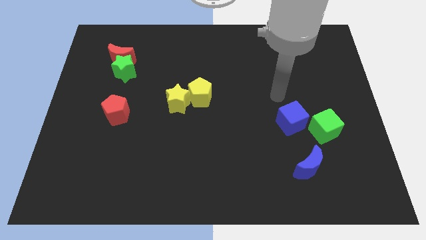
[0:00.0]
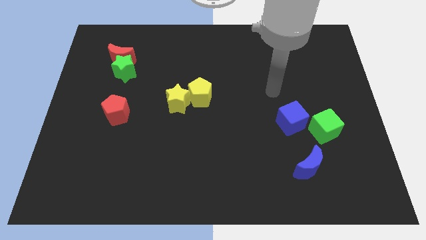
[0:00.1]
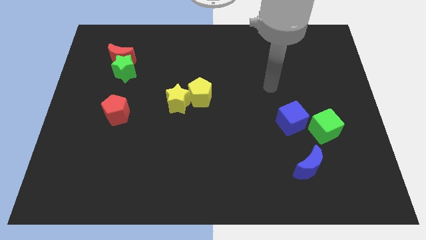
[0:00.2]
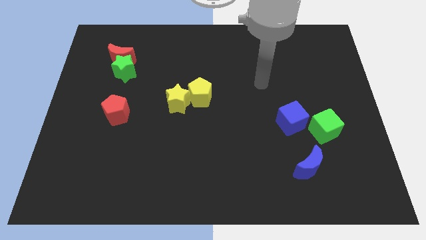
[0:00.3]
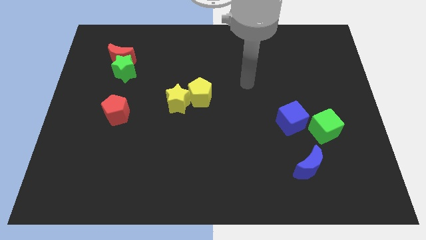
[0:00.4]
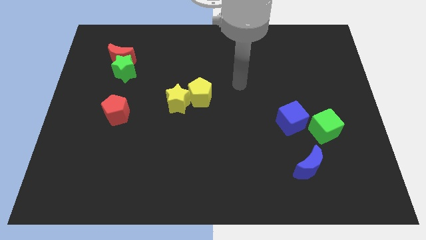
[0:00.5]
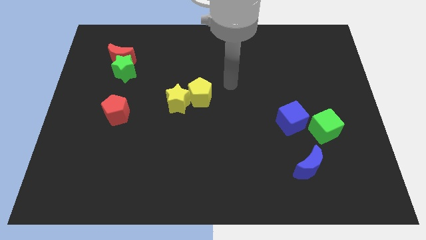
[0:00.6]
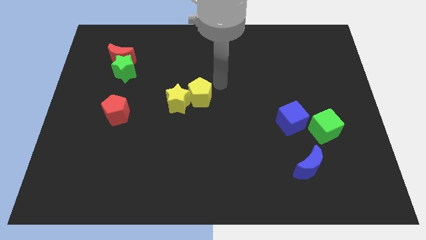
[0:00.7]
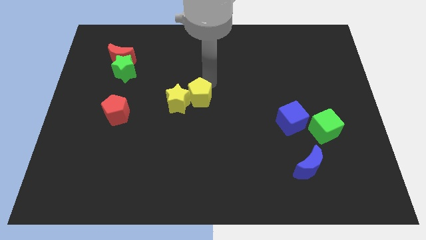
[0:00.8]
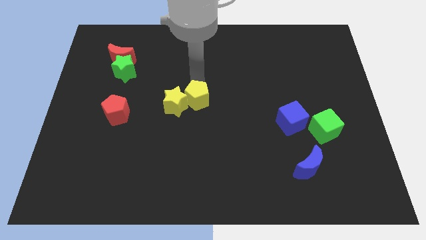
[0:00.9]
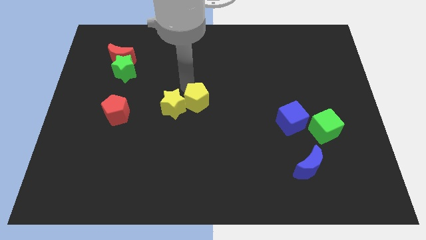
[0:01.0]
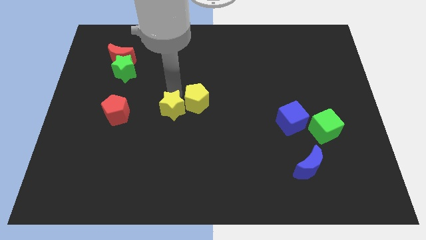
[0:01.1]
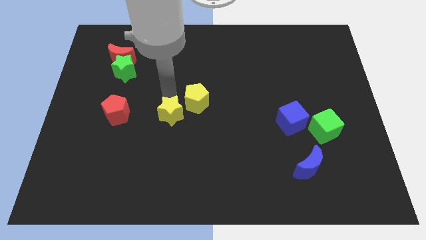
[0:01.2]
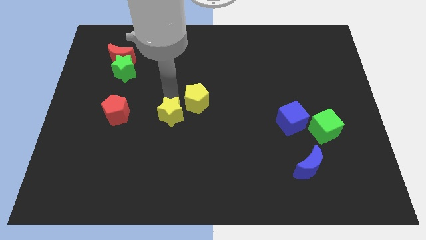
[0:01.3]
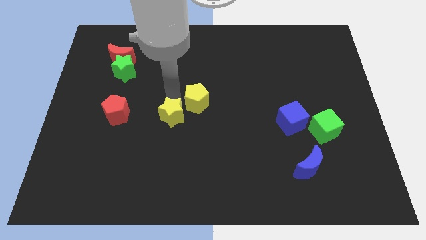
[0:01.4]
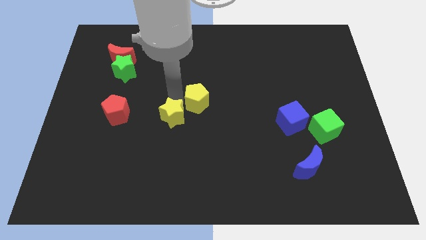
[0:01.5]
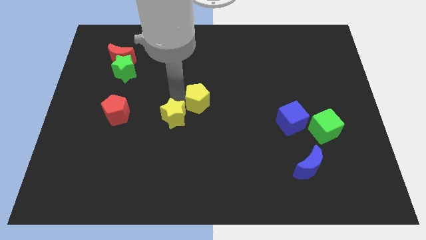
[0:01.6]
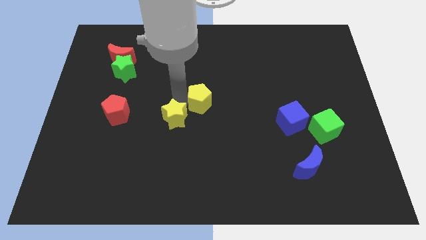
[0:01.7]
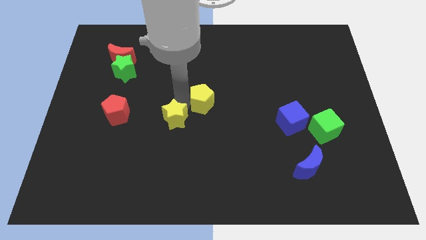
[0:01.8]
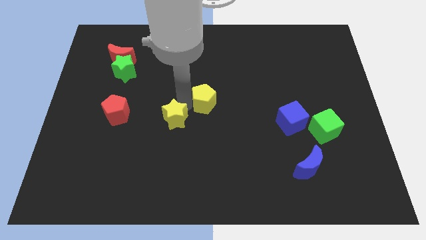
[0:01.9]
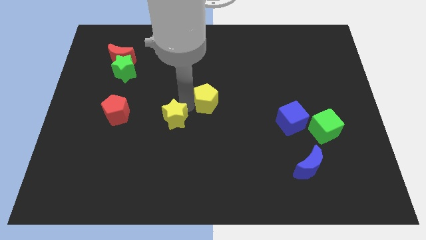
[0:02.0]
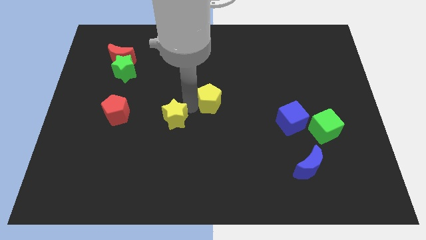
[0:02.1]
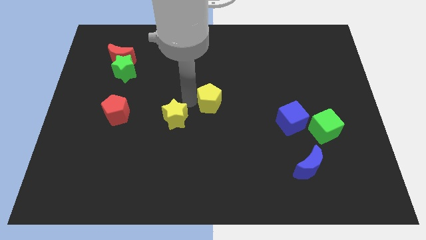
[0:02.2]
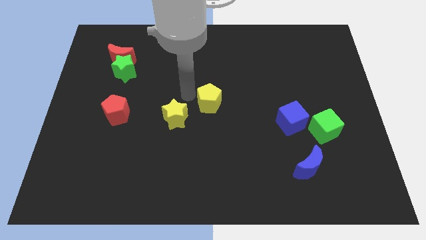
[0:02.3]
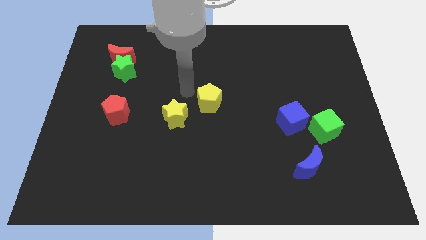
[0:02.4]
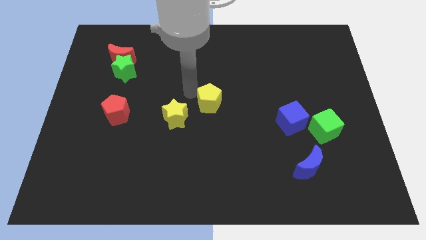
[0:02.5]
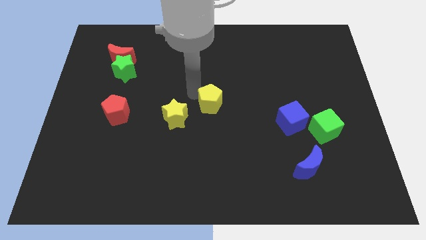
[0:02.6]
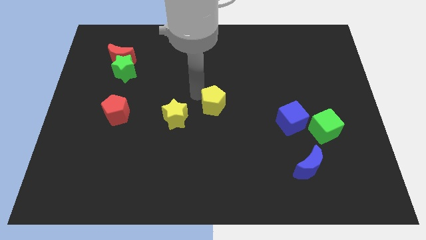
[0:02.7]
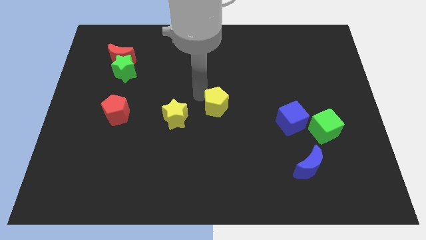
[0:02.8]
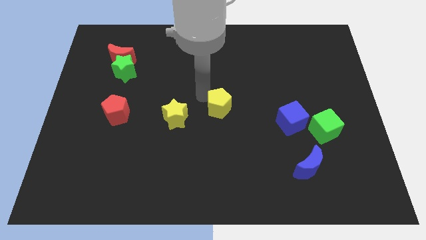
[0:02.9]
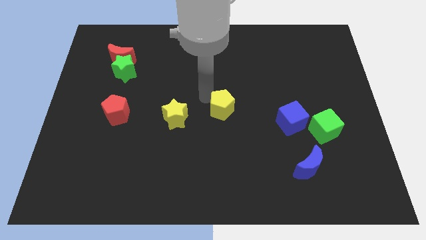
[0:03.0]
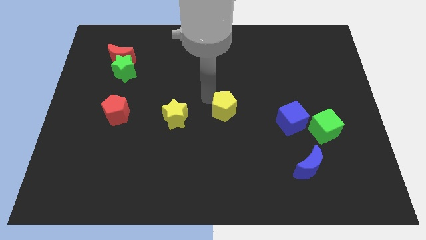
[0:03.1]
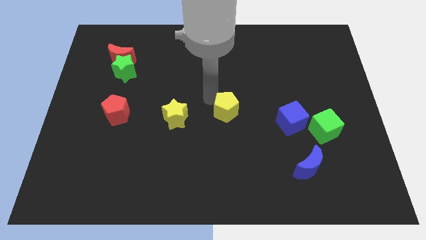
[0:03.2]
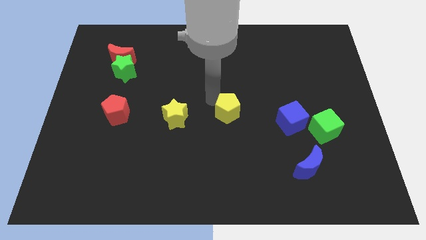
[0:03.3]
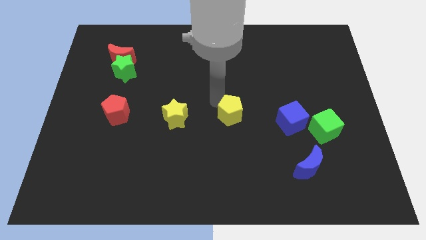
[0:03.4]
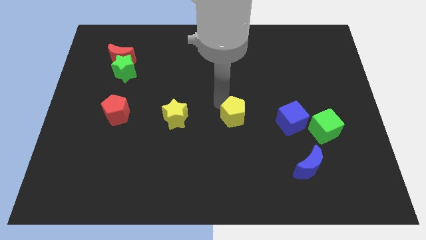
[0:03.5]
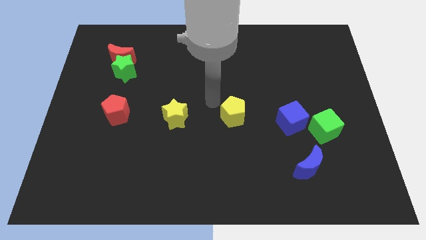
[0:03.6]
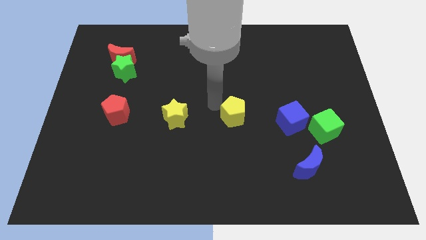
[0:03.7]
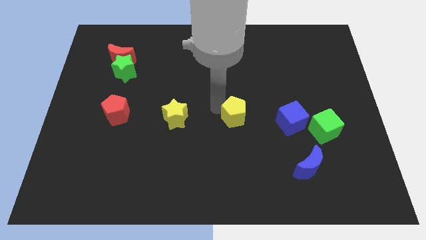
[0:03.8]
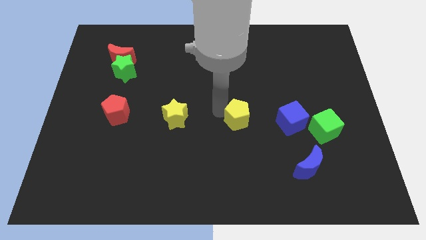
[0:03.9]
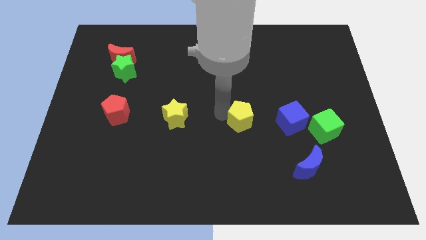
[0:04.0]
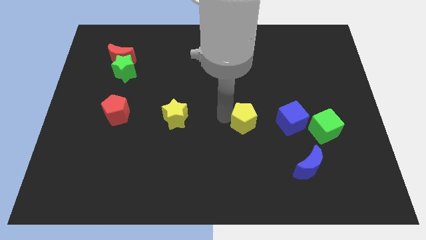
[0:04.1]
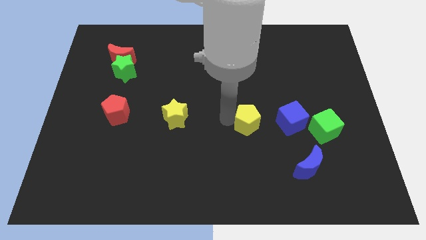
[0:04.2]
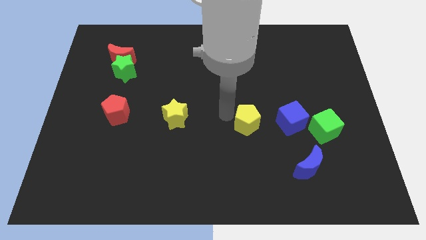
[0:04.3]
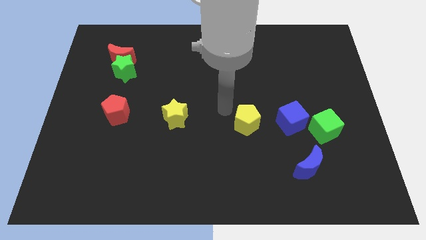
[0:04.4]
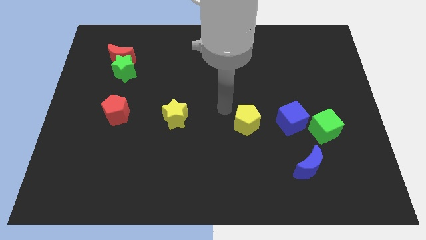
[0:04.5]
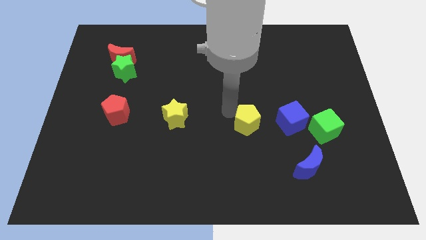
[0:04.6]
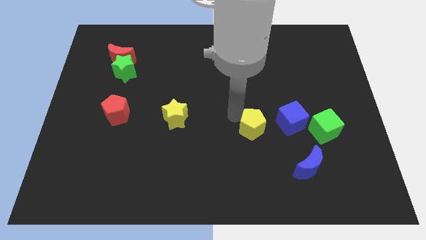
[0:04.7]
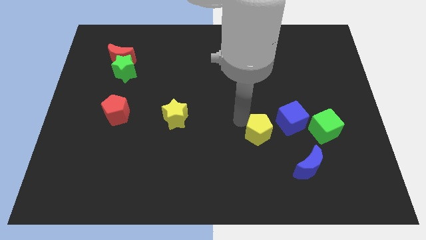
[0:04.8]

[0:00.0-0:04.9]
put the yellow pentagon to the bottom left of the blue cube

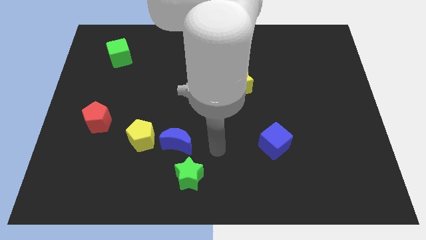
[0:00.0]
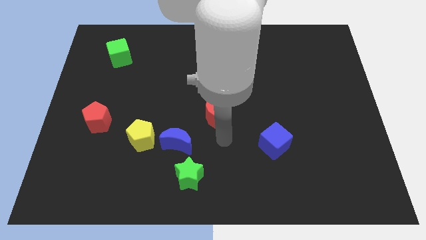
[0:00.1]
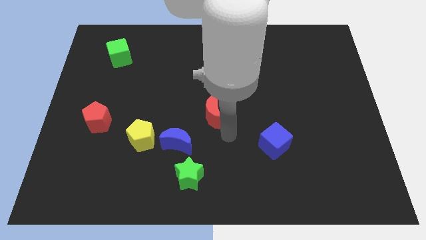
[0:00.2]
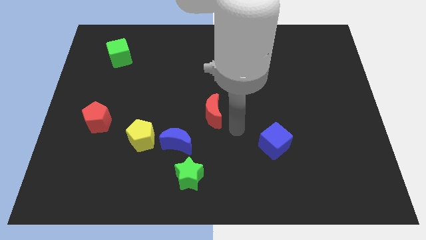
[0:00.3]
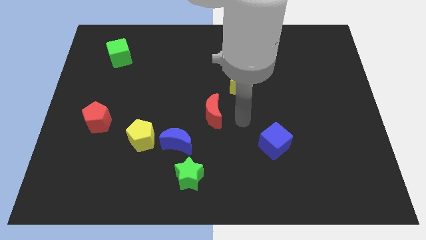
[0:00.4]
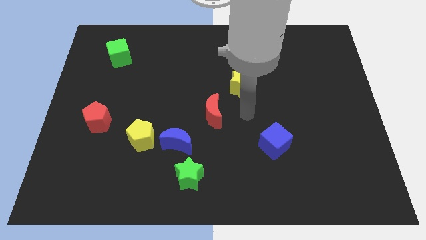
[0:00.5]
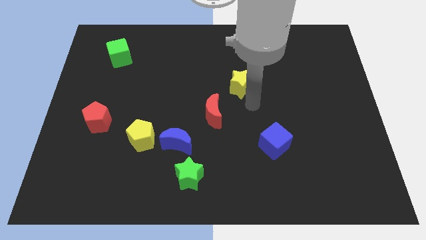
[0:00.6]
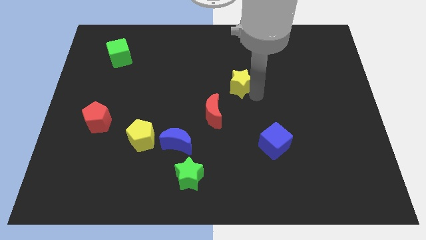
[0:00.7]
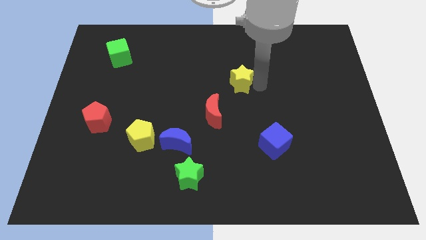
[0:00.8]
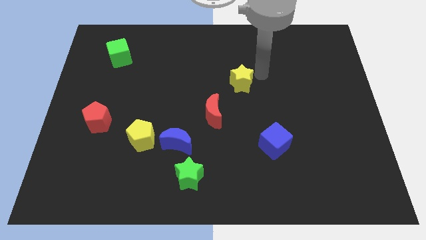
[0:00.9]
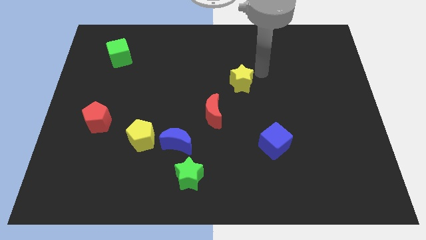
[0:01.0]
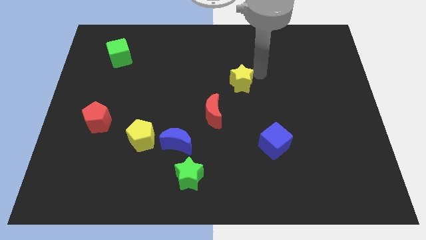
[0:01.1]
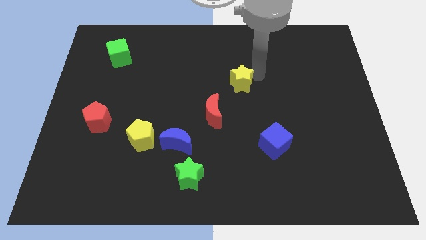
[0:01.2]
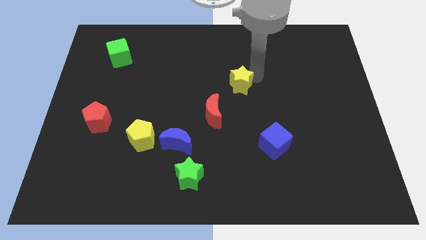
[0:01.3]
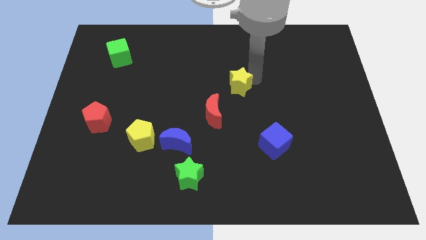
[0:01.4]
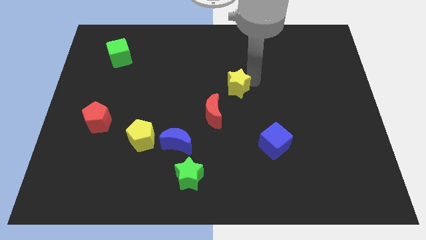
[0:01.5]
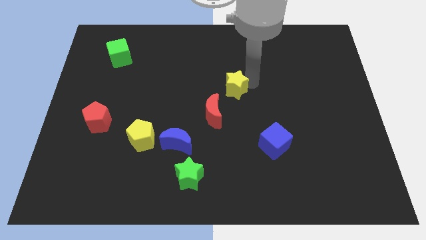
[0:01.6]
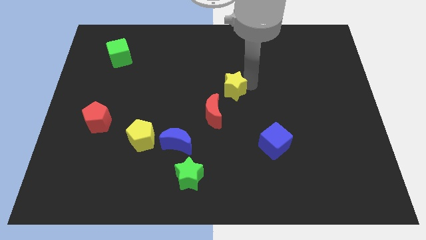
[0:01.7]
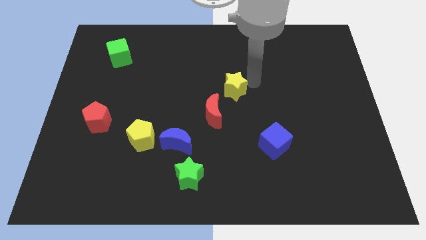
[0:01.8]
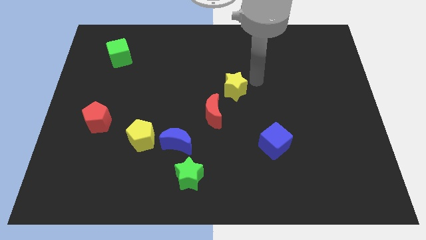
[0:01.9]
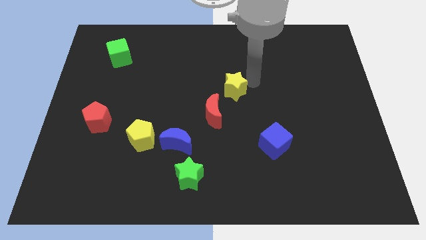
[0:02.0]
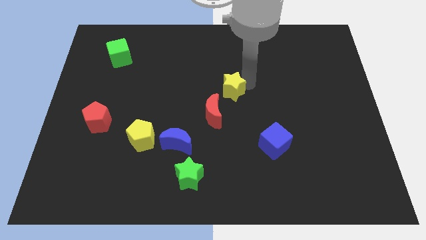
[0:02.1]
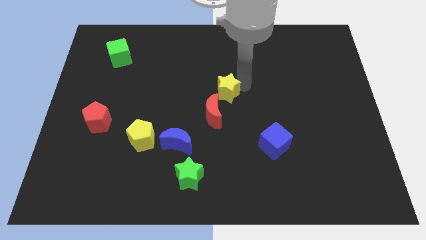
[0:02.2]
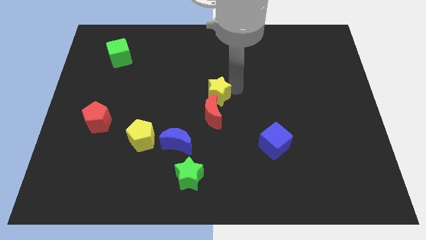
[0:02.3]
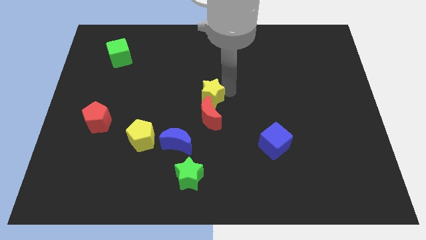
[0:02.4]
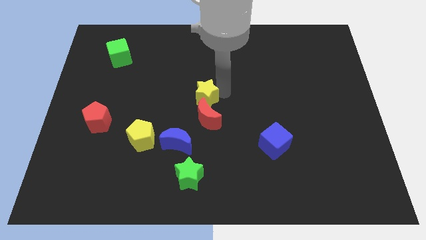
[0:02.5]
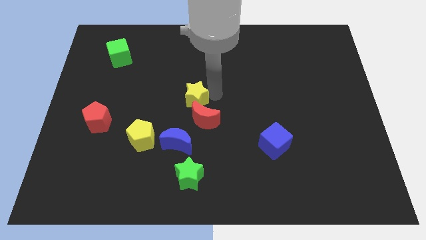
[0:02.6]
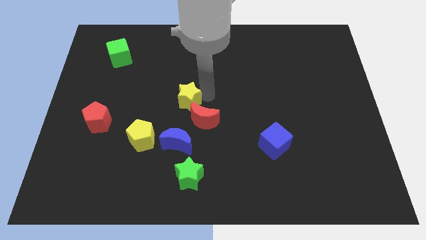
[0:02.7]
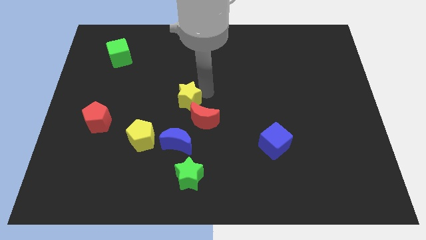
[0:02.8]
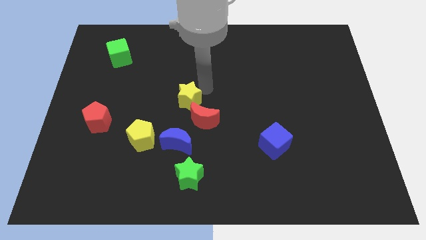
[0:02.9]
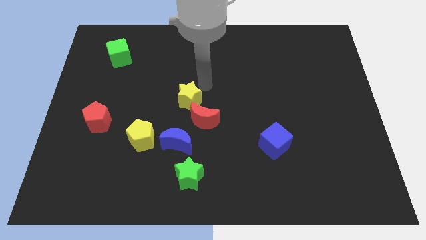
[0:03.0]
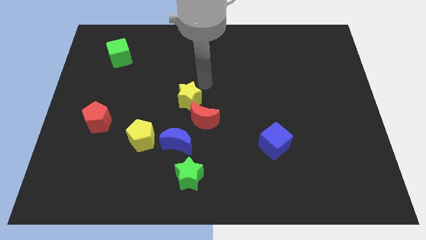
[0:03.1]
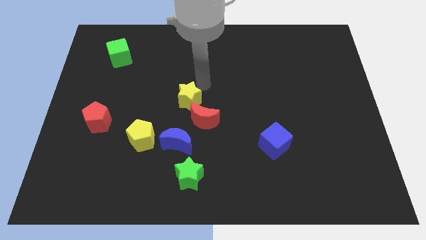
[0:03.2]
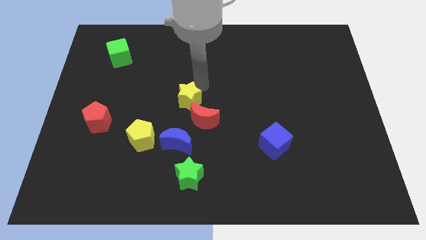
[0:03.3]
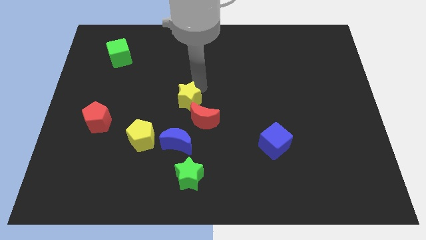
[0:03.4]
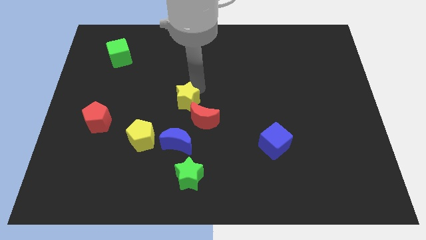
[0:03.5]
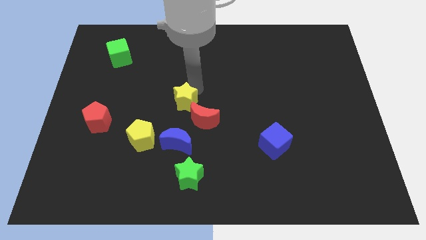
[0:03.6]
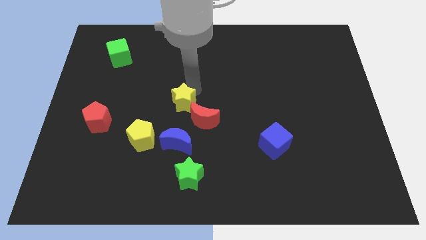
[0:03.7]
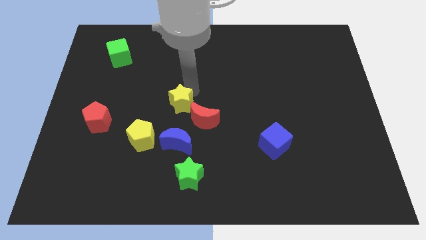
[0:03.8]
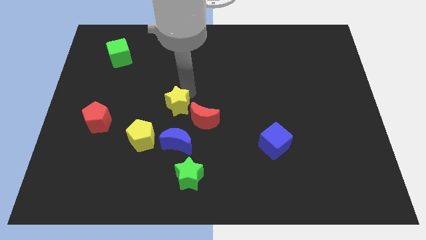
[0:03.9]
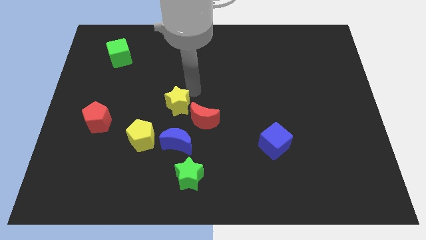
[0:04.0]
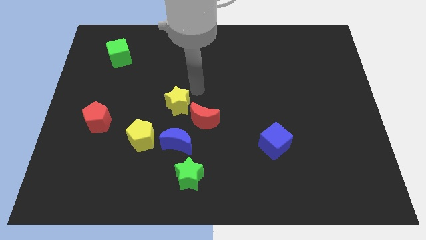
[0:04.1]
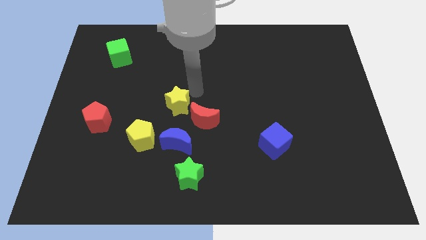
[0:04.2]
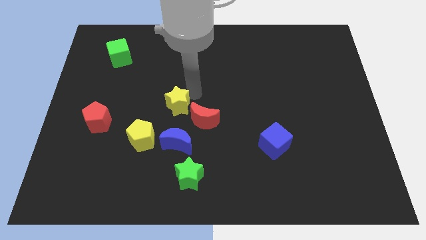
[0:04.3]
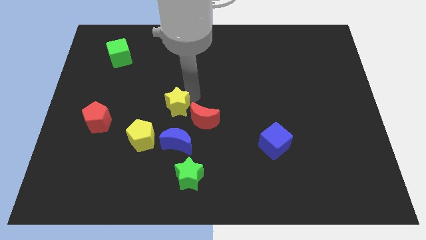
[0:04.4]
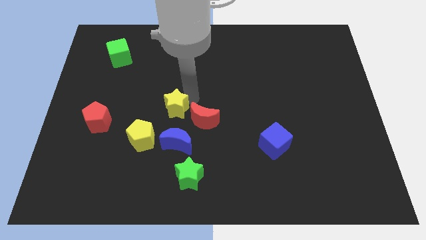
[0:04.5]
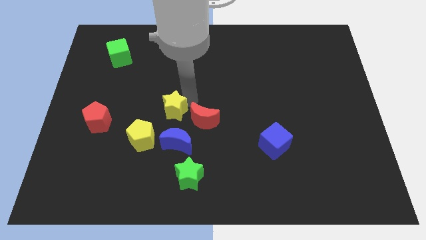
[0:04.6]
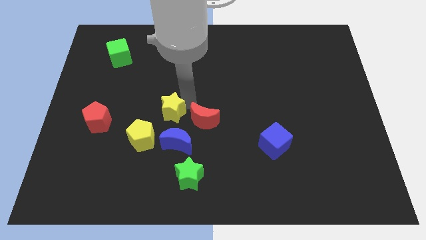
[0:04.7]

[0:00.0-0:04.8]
move the yellow star to the top left of the blue moon
